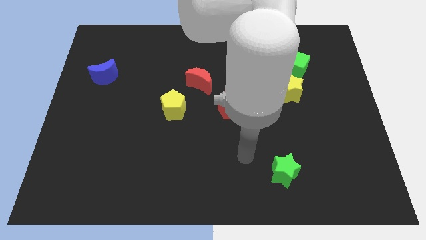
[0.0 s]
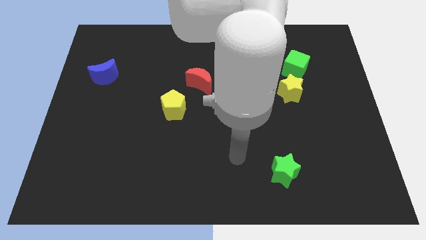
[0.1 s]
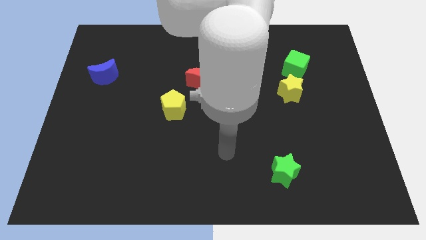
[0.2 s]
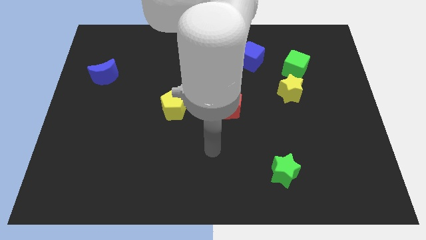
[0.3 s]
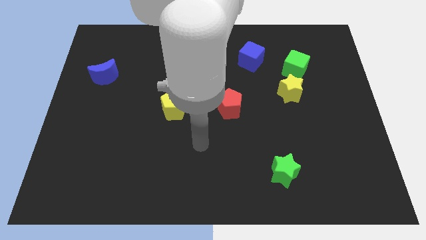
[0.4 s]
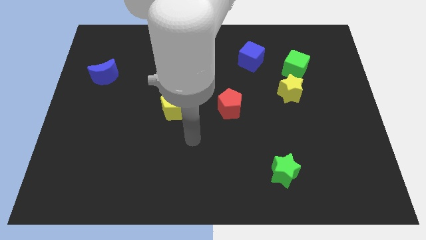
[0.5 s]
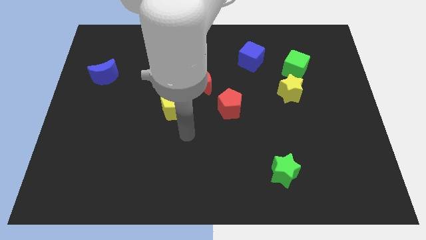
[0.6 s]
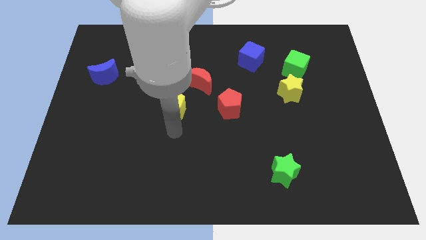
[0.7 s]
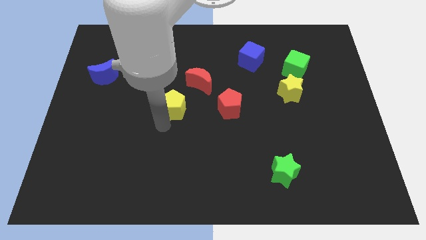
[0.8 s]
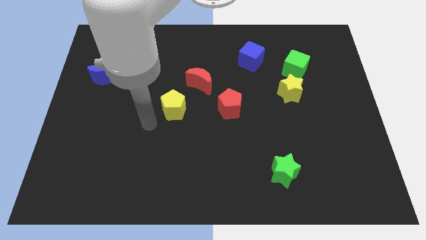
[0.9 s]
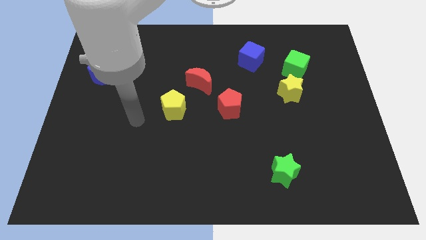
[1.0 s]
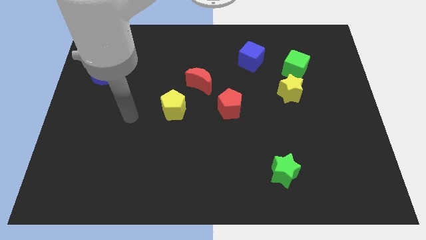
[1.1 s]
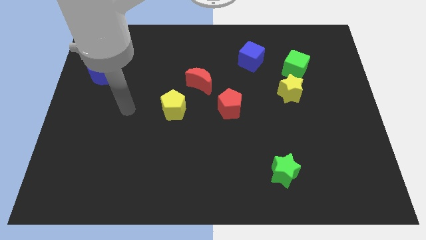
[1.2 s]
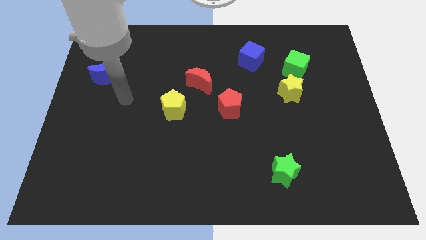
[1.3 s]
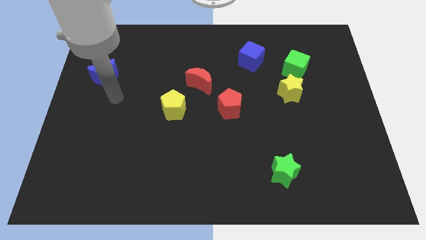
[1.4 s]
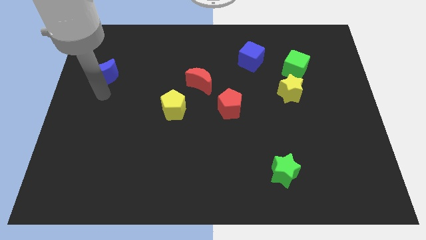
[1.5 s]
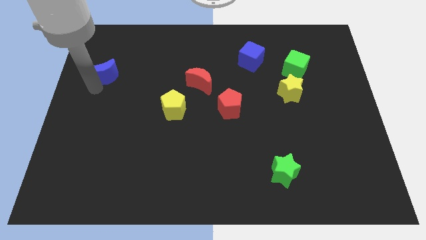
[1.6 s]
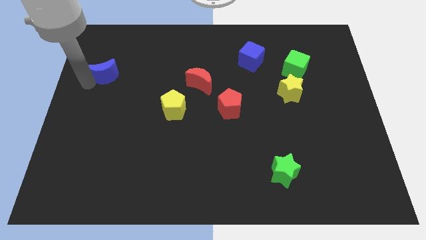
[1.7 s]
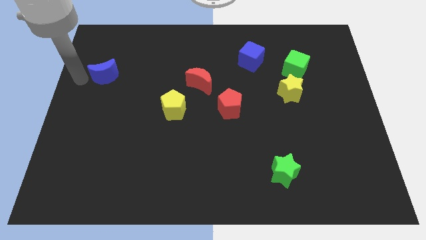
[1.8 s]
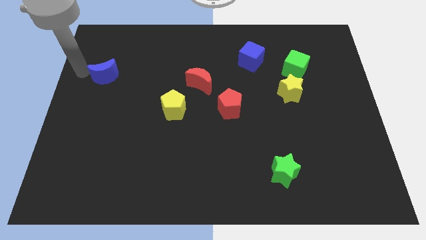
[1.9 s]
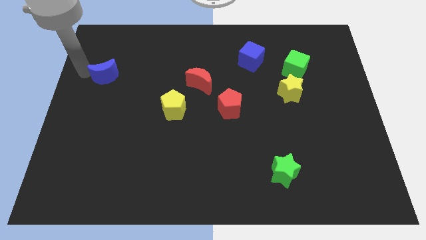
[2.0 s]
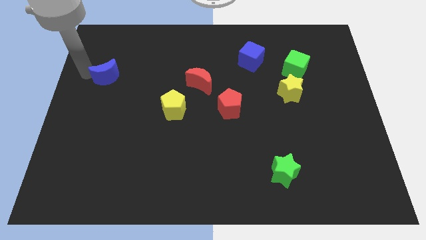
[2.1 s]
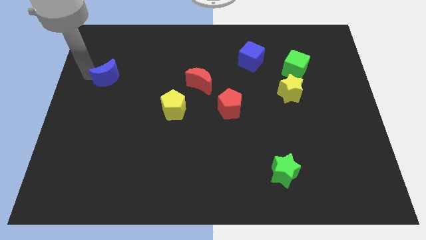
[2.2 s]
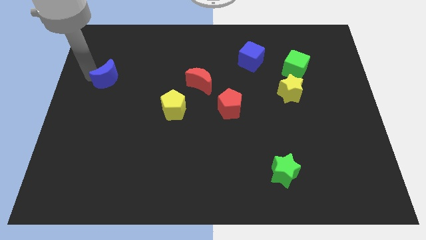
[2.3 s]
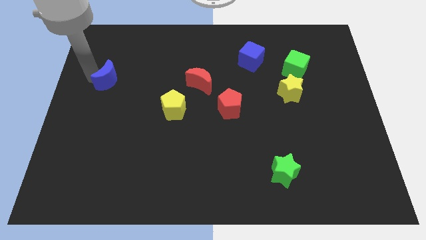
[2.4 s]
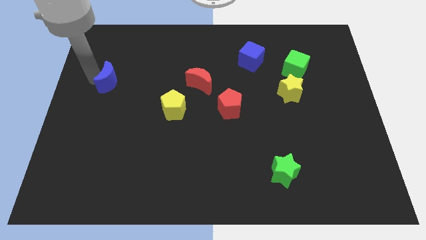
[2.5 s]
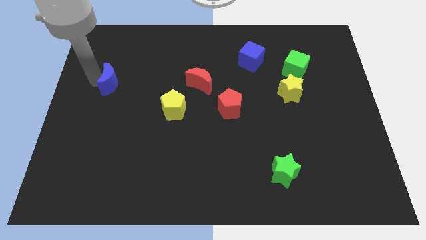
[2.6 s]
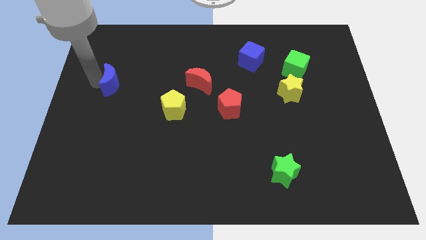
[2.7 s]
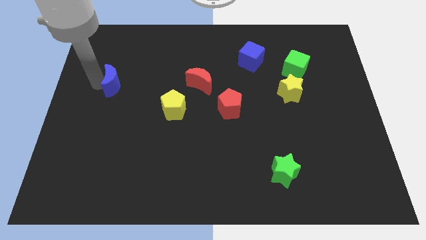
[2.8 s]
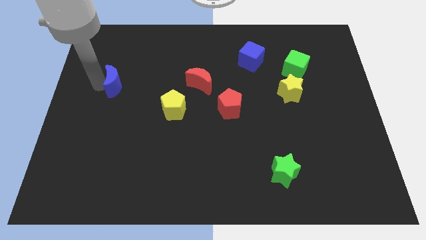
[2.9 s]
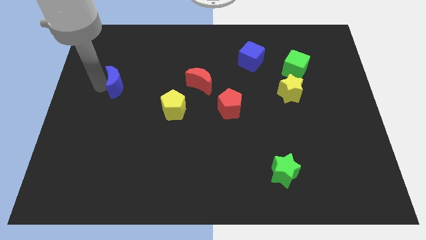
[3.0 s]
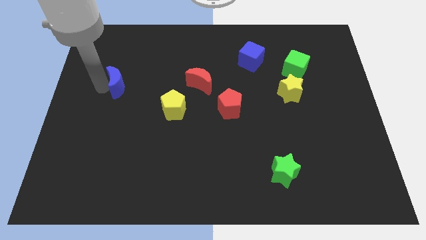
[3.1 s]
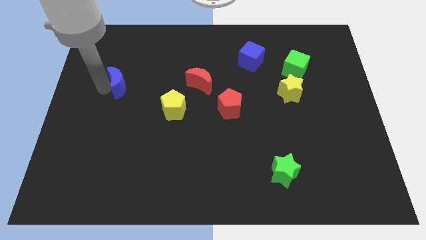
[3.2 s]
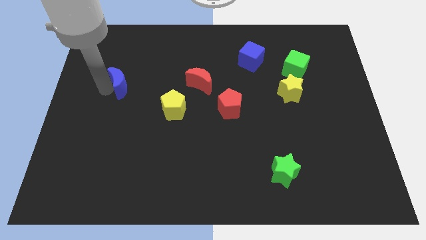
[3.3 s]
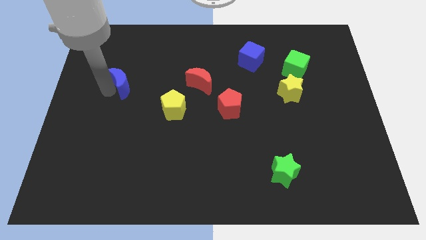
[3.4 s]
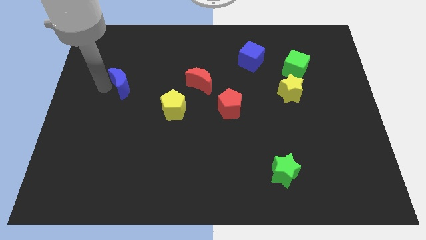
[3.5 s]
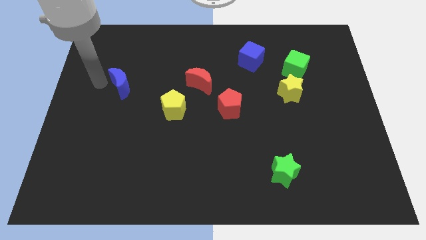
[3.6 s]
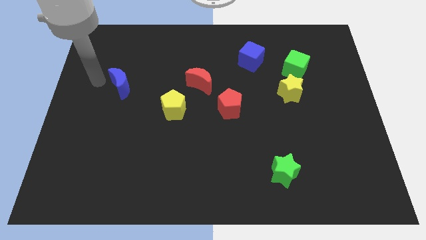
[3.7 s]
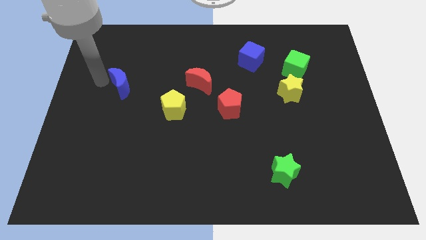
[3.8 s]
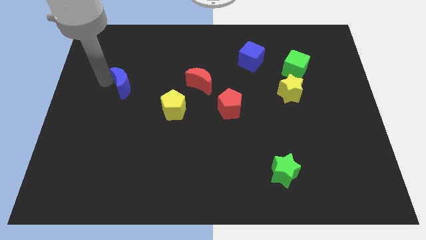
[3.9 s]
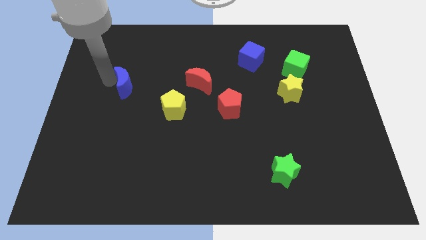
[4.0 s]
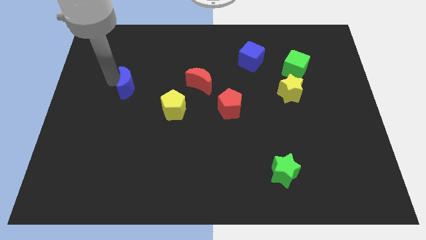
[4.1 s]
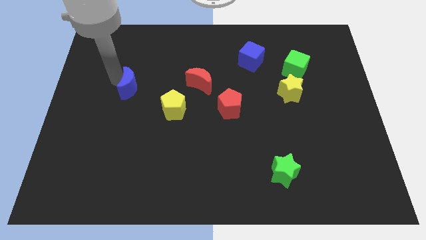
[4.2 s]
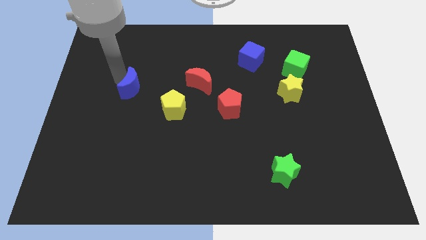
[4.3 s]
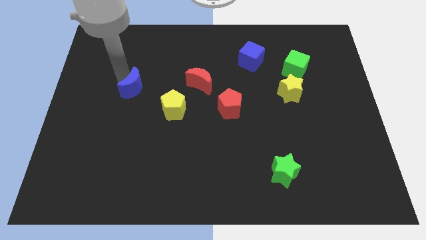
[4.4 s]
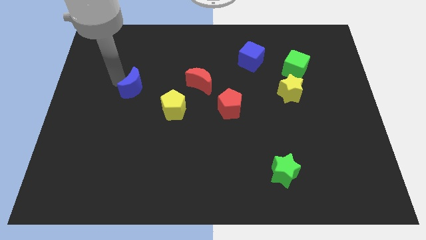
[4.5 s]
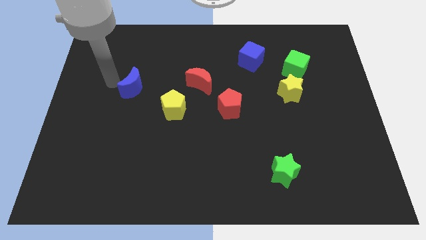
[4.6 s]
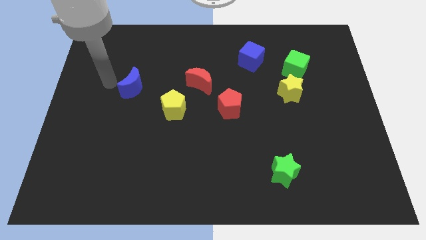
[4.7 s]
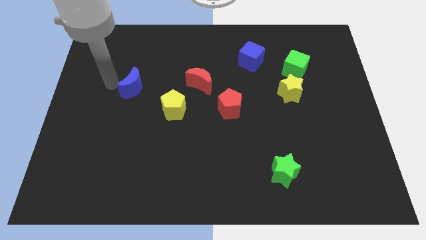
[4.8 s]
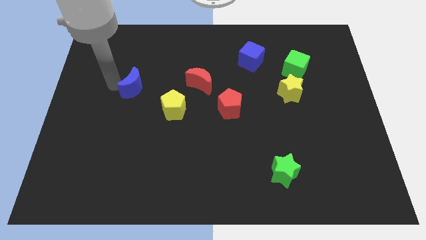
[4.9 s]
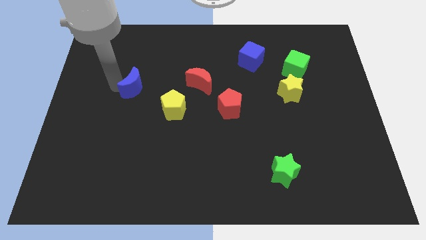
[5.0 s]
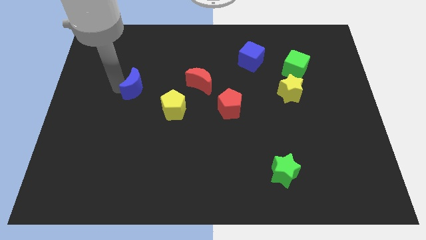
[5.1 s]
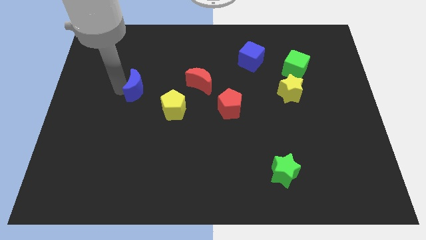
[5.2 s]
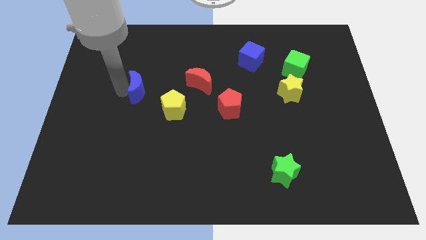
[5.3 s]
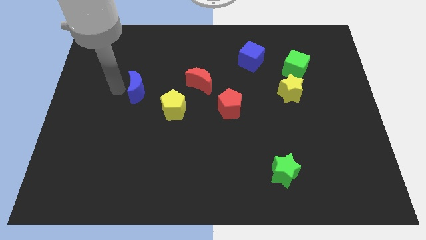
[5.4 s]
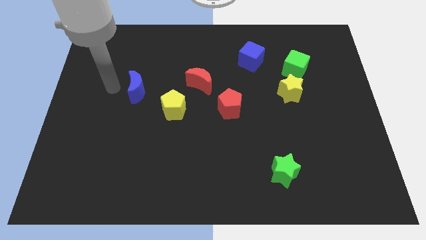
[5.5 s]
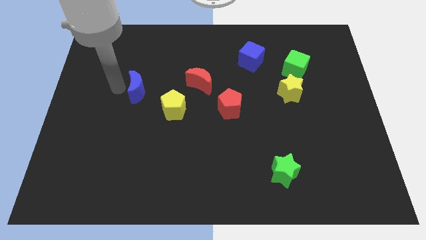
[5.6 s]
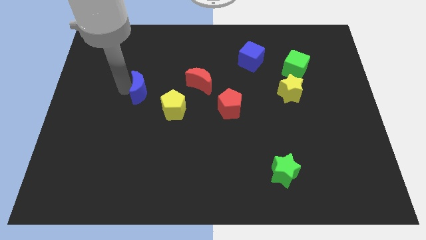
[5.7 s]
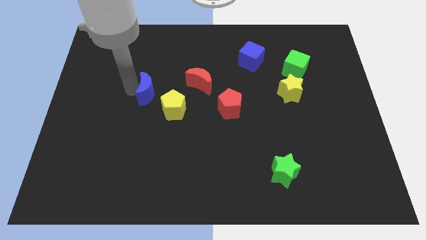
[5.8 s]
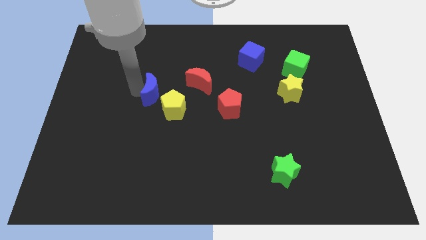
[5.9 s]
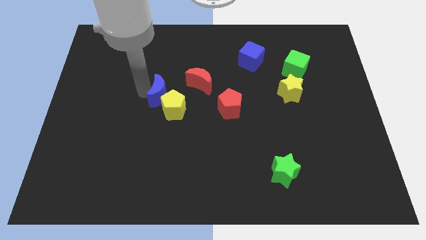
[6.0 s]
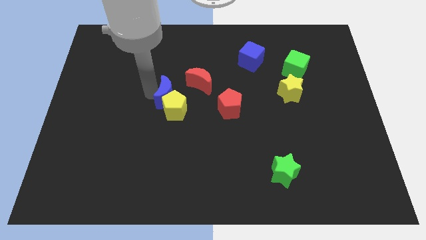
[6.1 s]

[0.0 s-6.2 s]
move the blue moon to the center

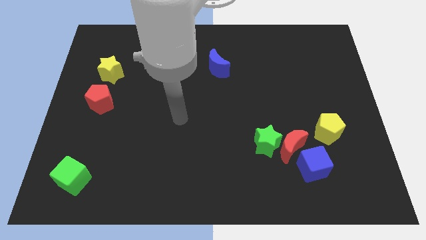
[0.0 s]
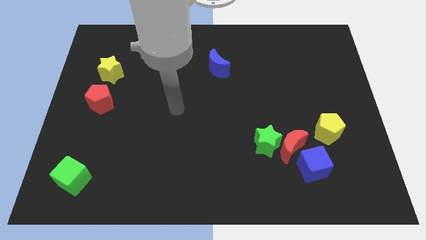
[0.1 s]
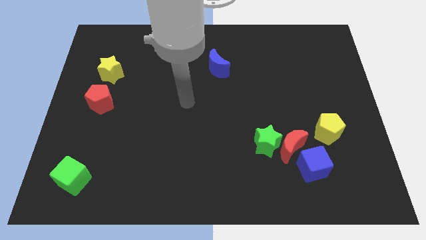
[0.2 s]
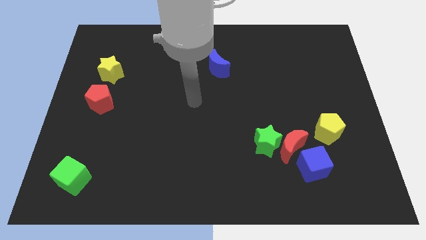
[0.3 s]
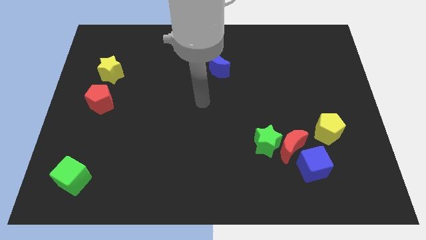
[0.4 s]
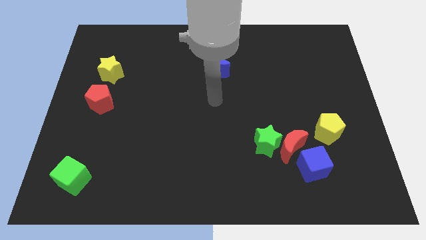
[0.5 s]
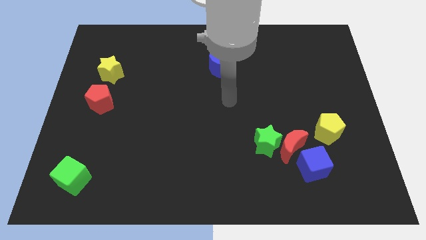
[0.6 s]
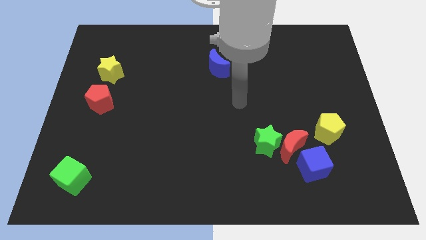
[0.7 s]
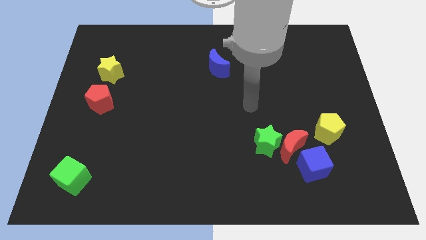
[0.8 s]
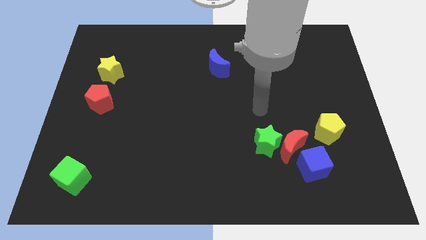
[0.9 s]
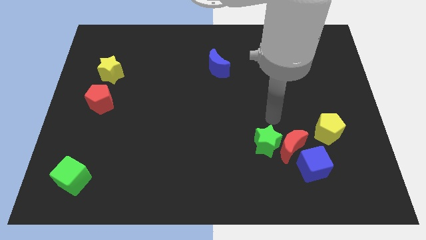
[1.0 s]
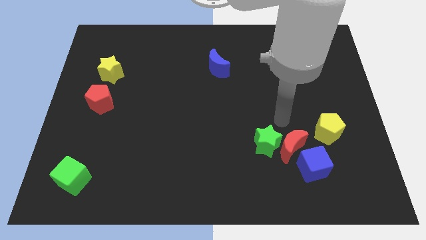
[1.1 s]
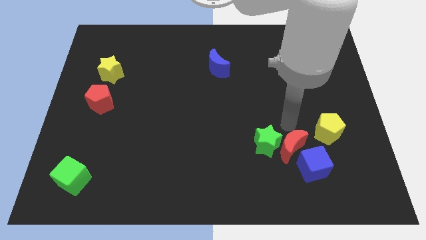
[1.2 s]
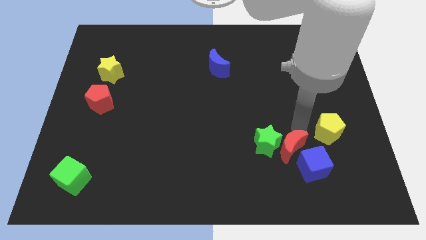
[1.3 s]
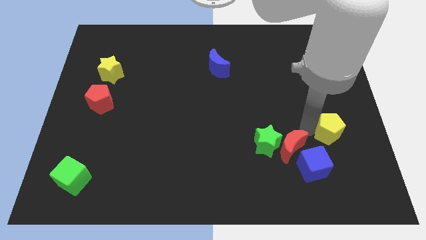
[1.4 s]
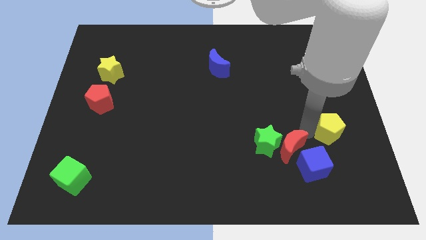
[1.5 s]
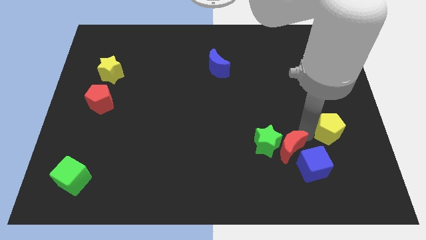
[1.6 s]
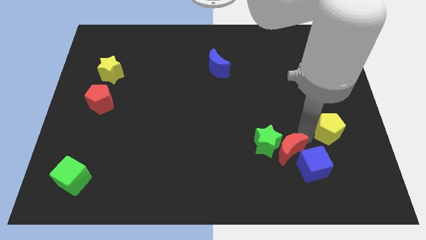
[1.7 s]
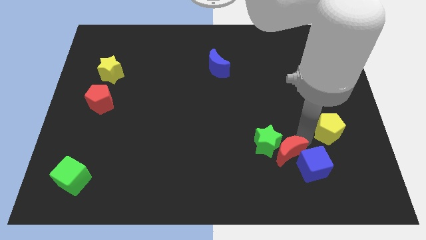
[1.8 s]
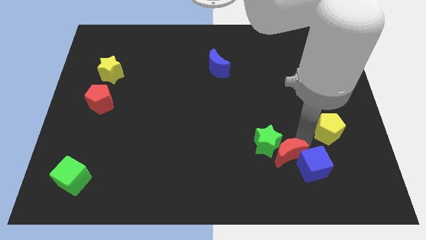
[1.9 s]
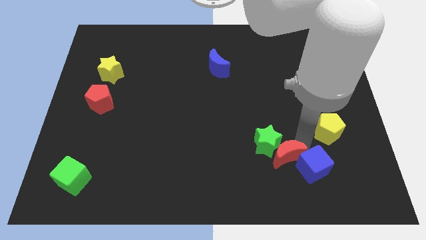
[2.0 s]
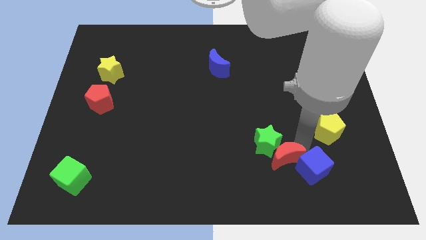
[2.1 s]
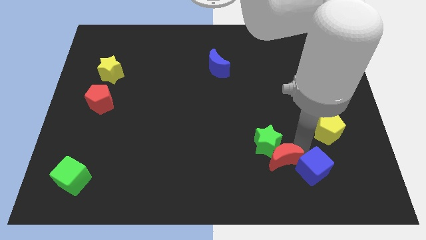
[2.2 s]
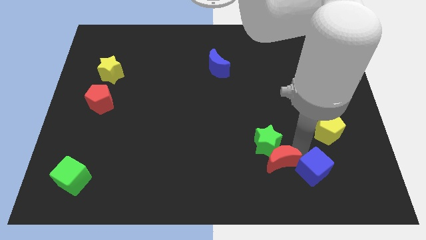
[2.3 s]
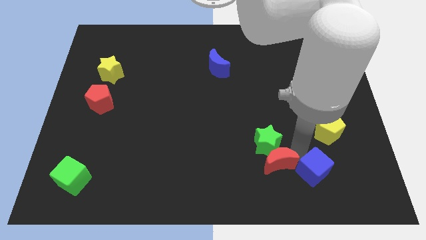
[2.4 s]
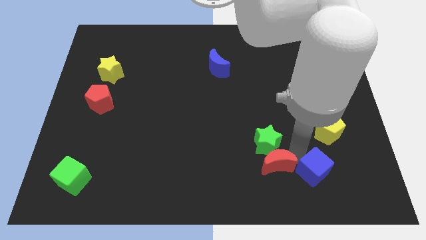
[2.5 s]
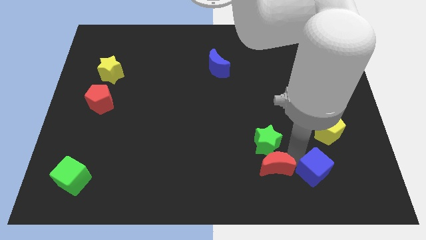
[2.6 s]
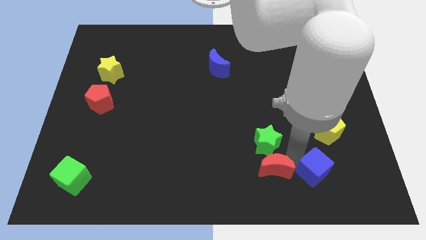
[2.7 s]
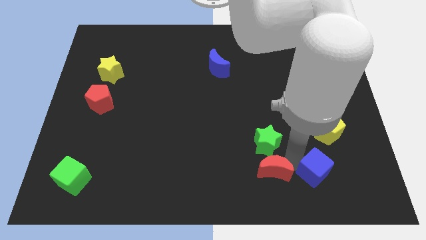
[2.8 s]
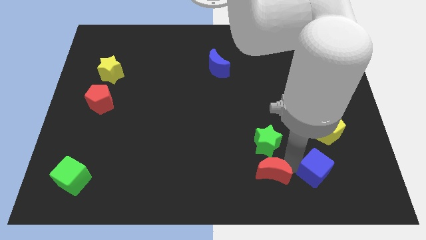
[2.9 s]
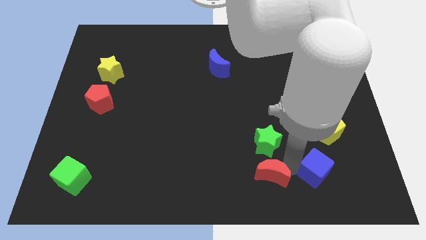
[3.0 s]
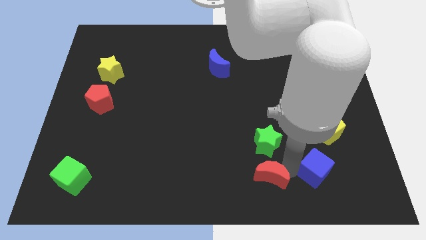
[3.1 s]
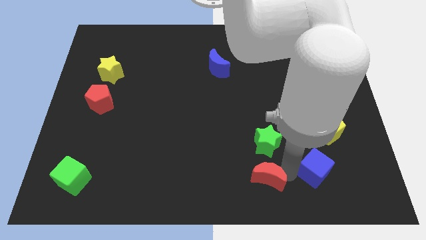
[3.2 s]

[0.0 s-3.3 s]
put the red moon to the bottom side
